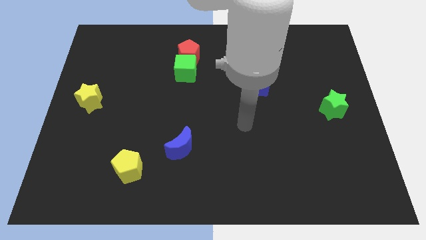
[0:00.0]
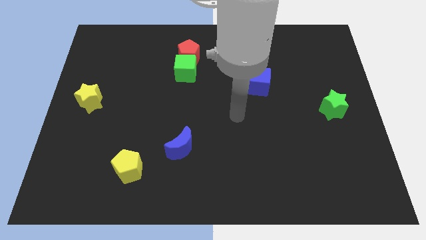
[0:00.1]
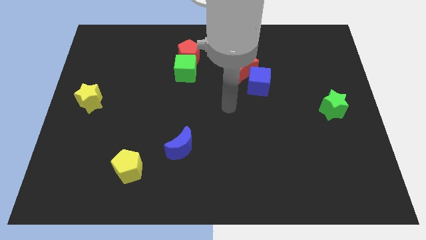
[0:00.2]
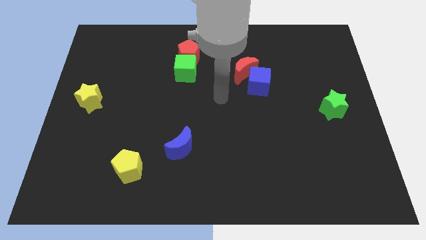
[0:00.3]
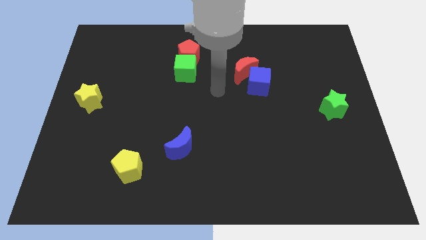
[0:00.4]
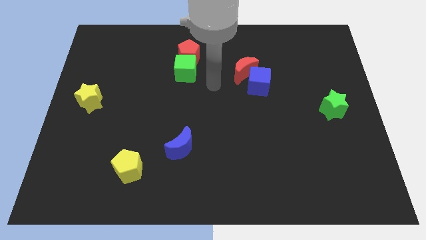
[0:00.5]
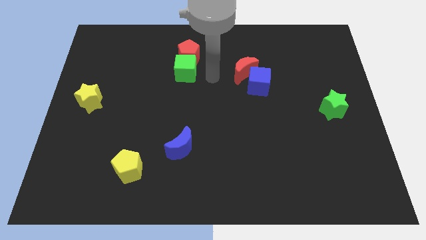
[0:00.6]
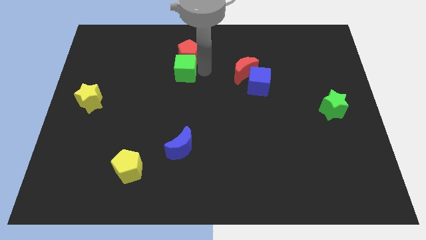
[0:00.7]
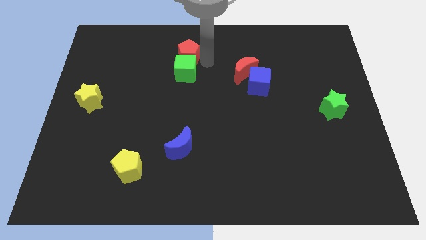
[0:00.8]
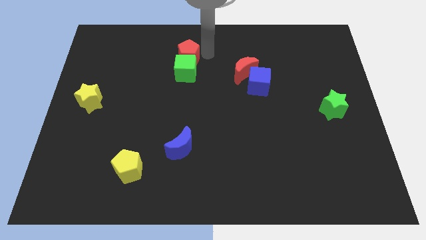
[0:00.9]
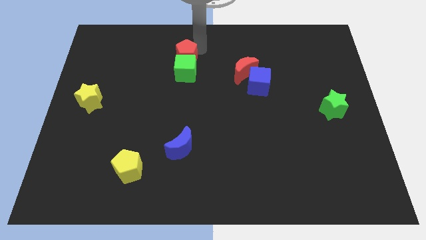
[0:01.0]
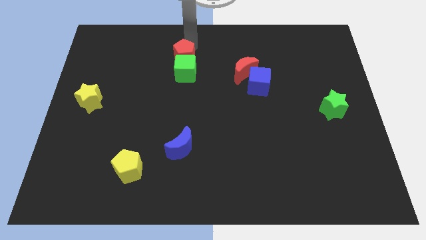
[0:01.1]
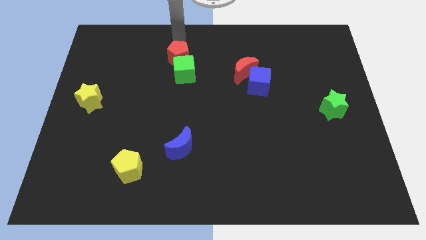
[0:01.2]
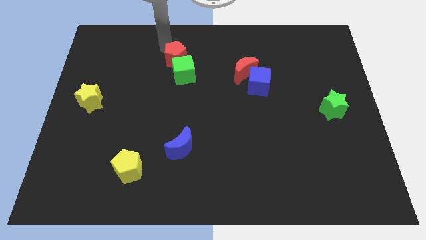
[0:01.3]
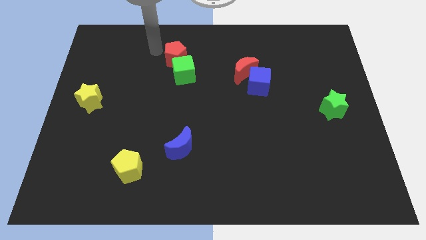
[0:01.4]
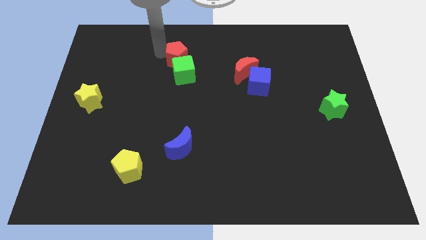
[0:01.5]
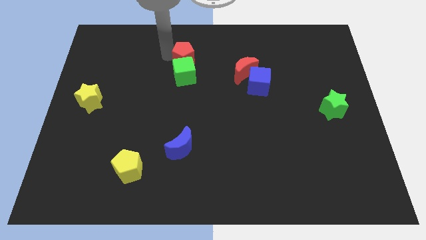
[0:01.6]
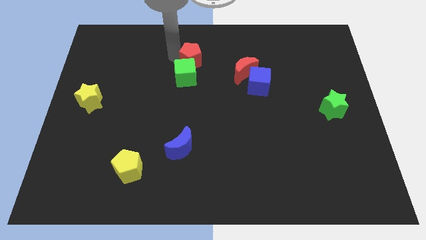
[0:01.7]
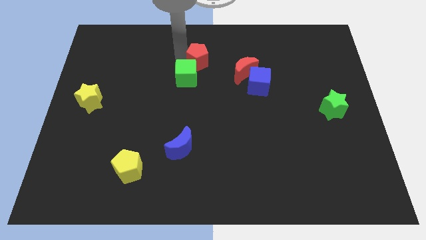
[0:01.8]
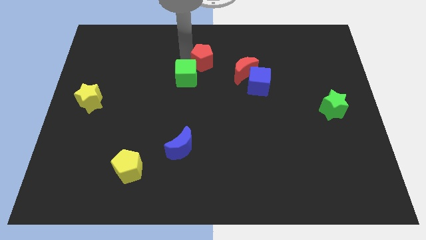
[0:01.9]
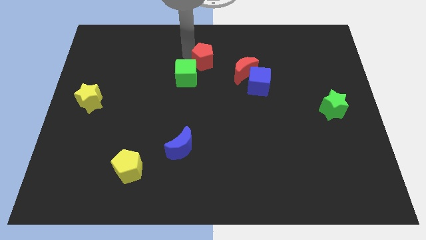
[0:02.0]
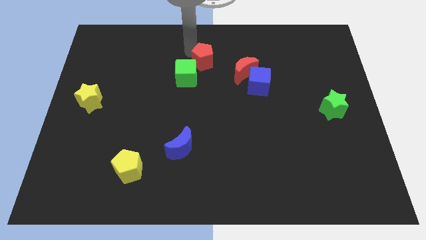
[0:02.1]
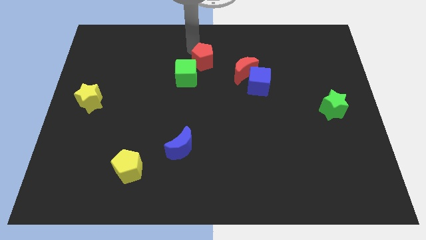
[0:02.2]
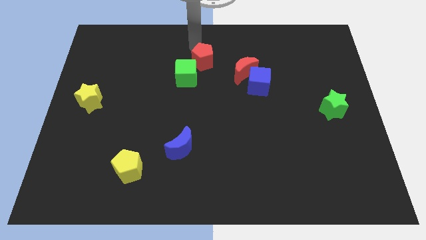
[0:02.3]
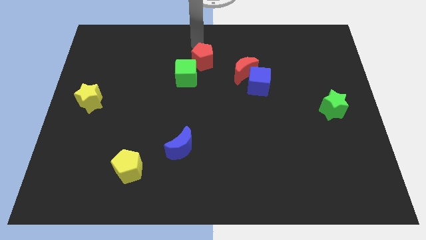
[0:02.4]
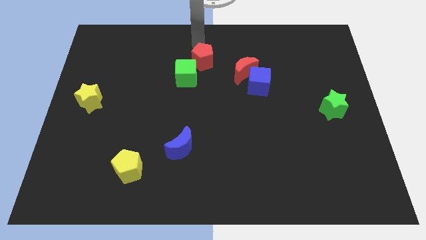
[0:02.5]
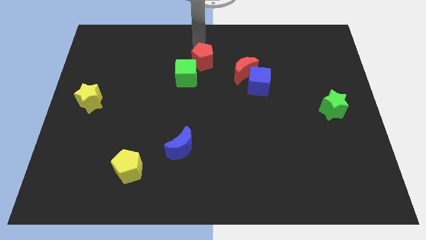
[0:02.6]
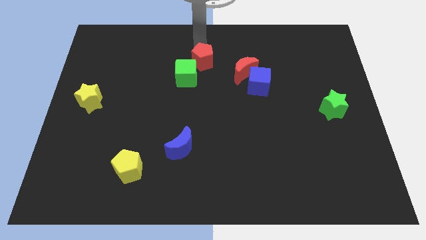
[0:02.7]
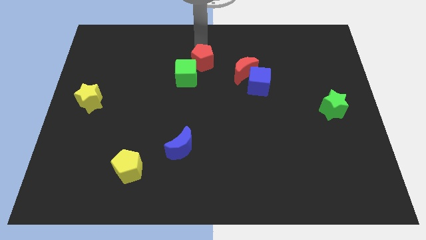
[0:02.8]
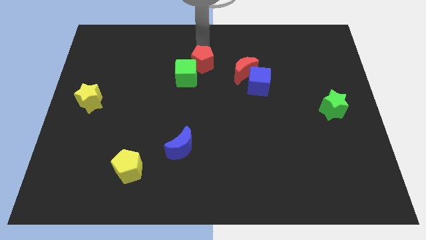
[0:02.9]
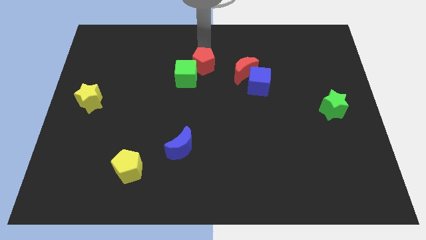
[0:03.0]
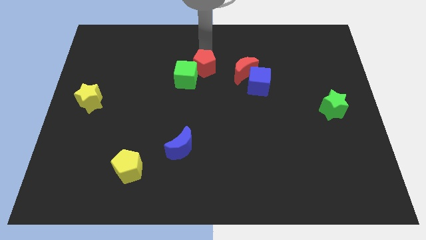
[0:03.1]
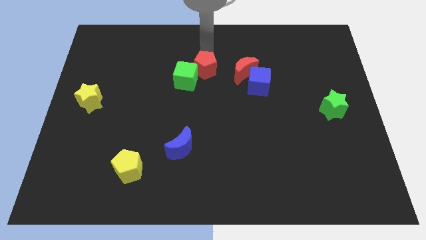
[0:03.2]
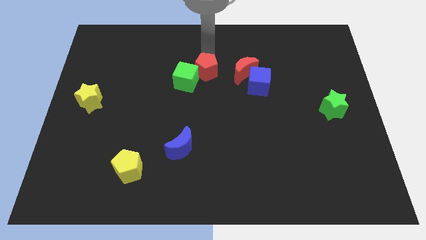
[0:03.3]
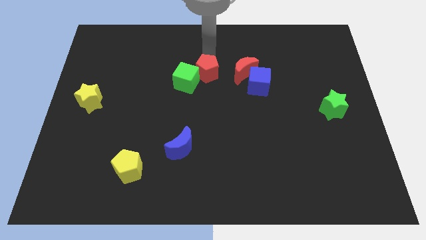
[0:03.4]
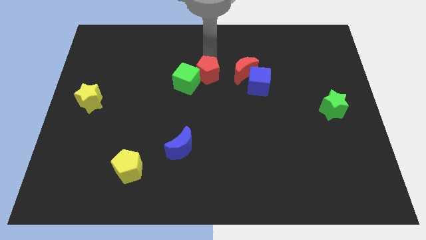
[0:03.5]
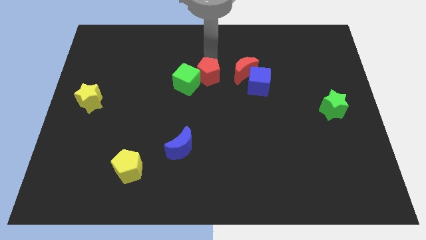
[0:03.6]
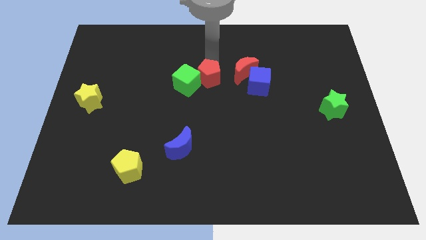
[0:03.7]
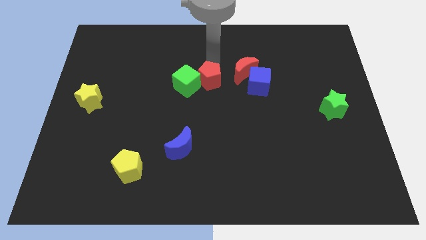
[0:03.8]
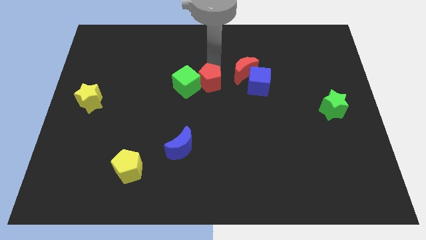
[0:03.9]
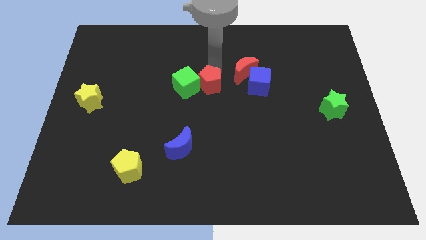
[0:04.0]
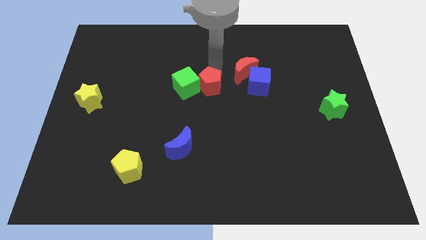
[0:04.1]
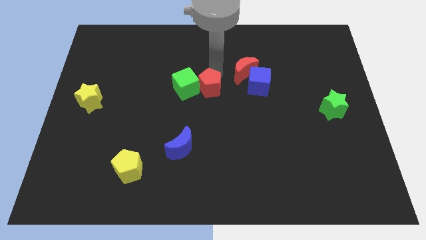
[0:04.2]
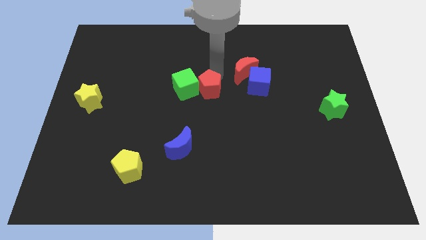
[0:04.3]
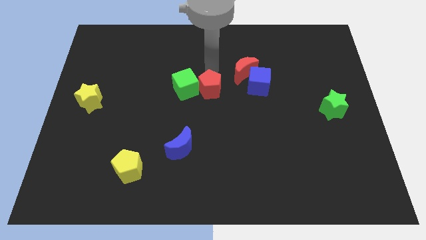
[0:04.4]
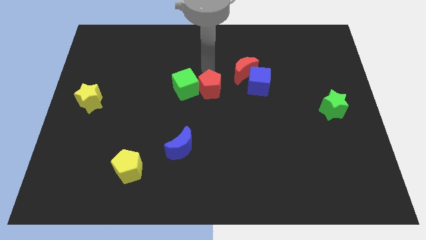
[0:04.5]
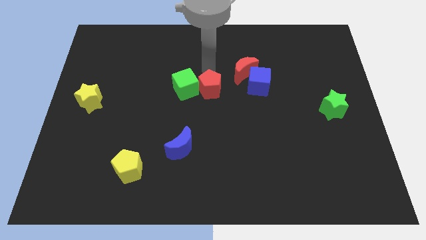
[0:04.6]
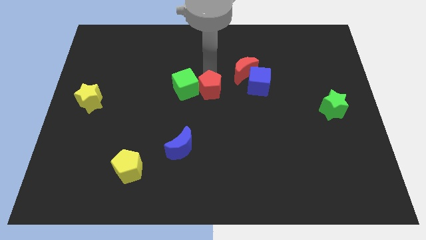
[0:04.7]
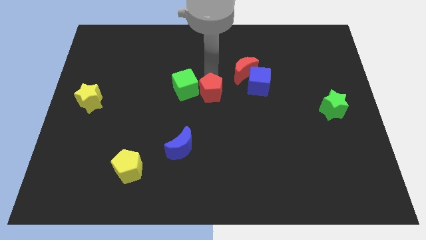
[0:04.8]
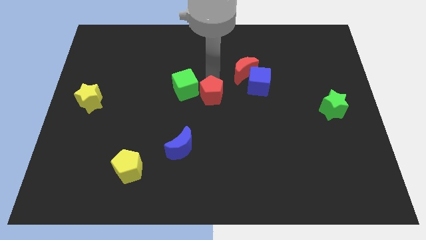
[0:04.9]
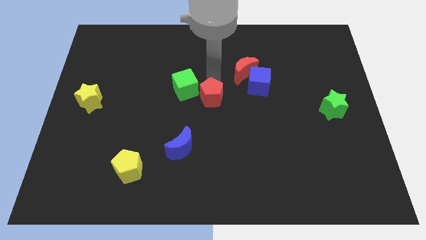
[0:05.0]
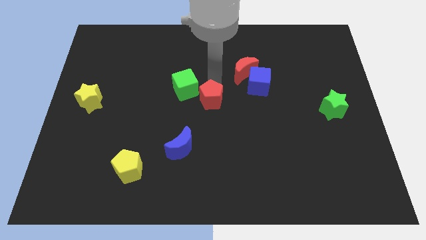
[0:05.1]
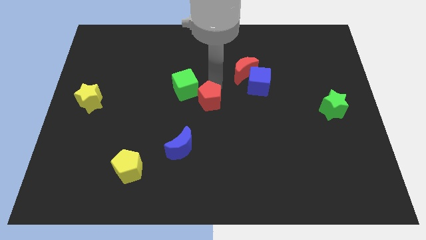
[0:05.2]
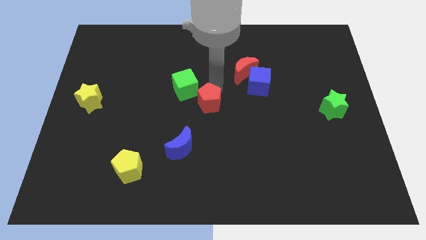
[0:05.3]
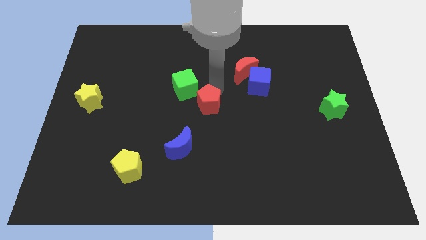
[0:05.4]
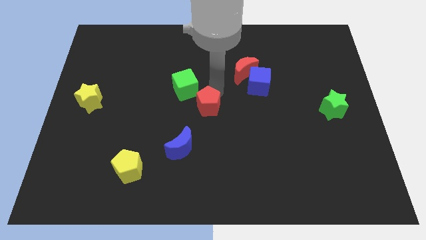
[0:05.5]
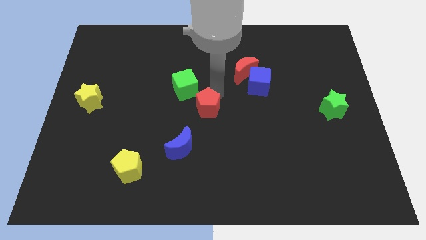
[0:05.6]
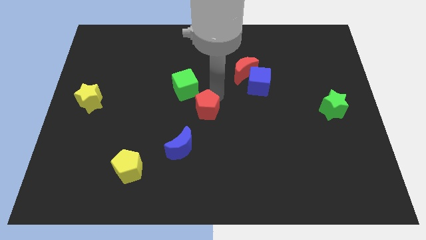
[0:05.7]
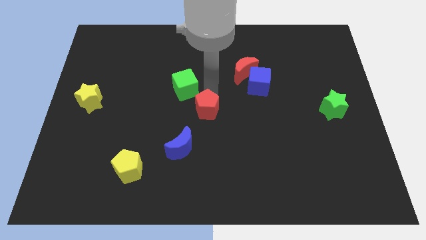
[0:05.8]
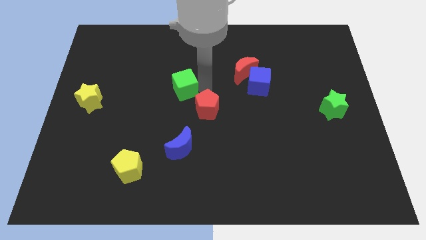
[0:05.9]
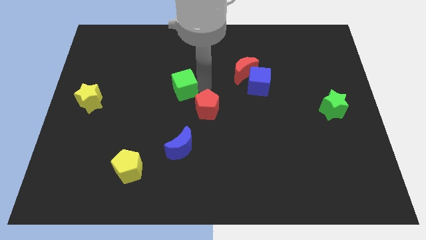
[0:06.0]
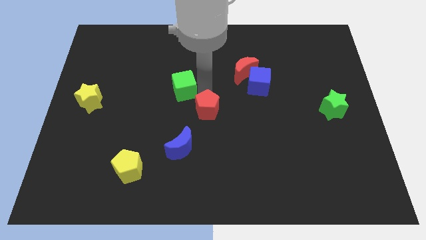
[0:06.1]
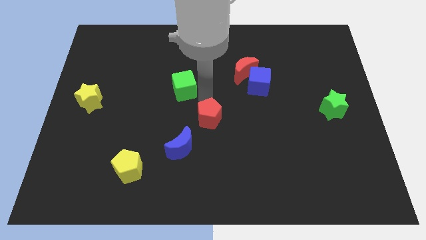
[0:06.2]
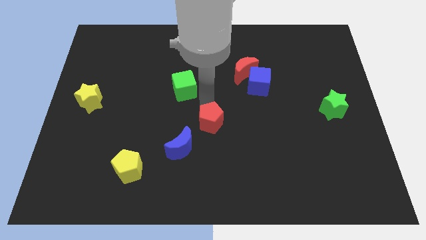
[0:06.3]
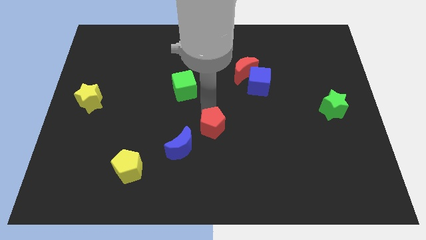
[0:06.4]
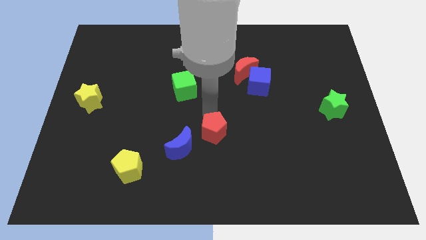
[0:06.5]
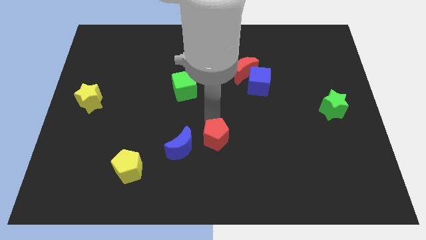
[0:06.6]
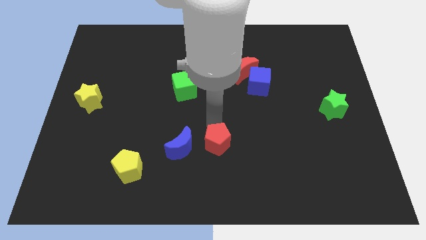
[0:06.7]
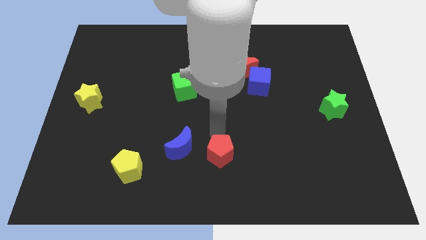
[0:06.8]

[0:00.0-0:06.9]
put the red pentagon to the bottom side
